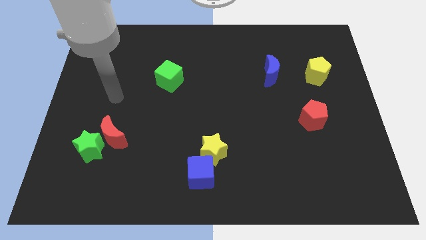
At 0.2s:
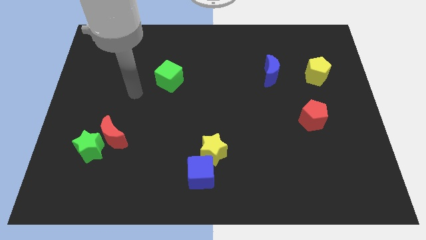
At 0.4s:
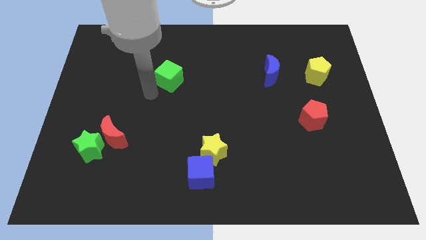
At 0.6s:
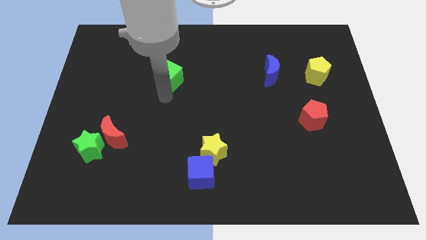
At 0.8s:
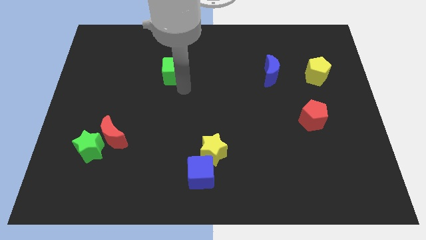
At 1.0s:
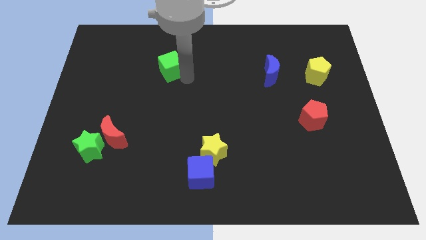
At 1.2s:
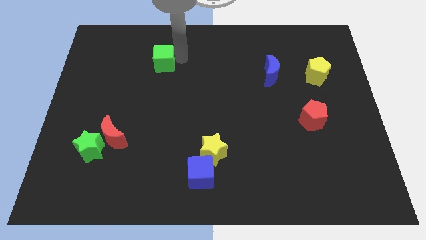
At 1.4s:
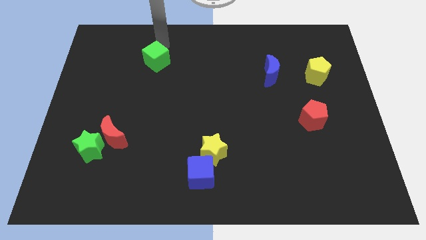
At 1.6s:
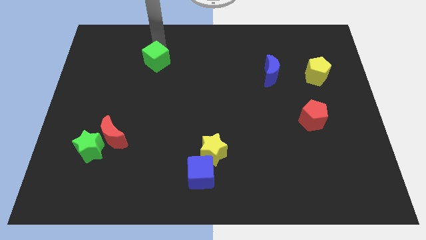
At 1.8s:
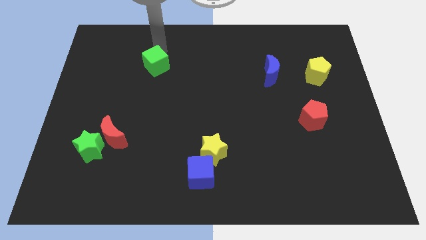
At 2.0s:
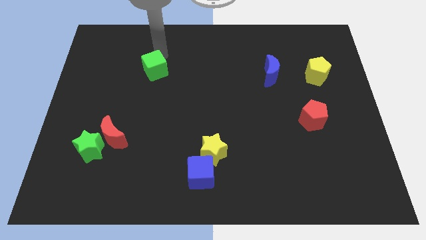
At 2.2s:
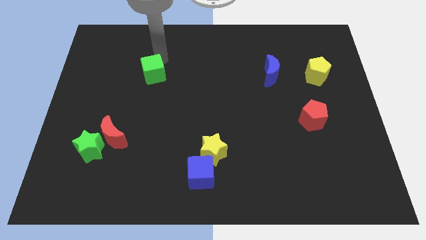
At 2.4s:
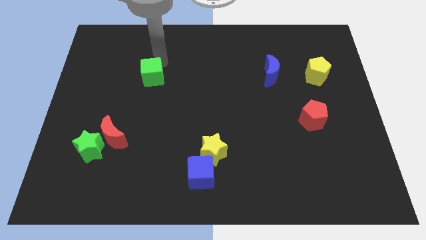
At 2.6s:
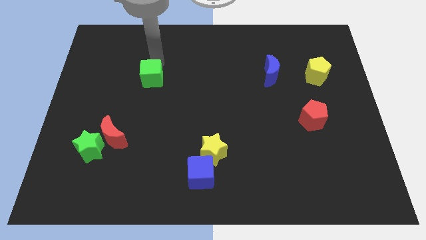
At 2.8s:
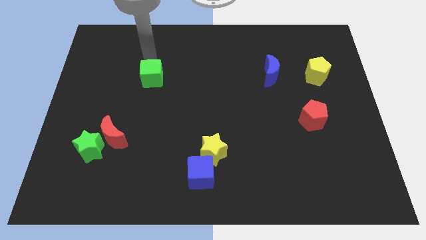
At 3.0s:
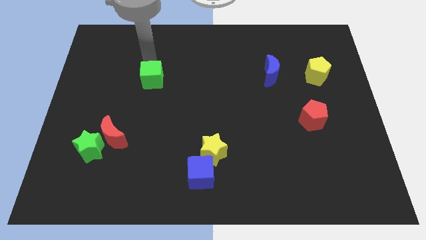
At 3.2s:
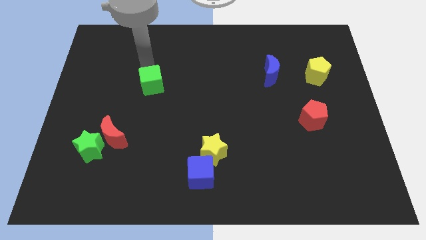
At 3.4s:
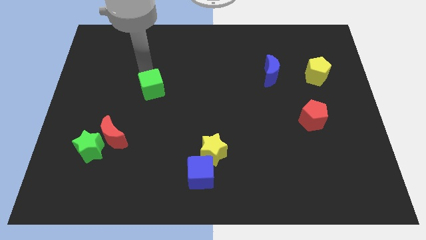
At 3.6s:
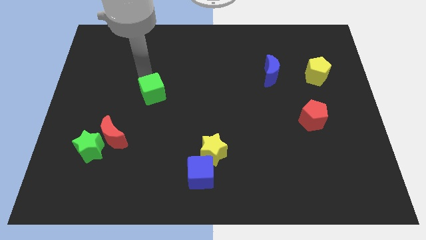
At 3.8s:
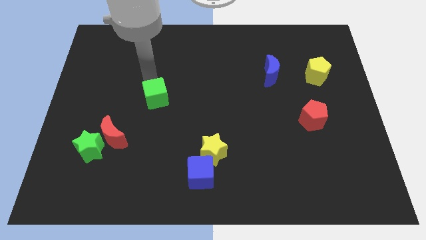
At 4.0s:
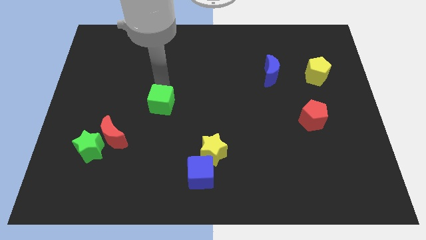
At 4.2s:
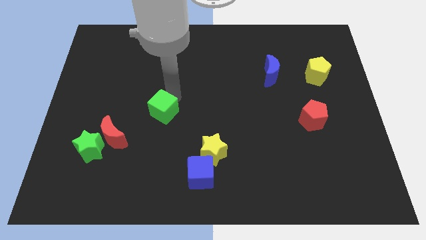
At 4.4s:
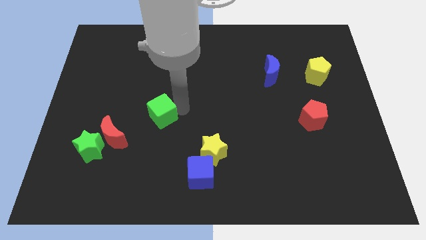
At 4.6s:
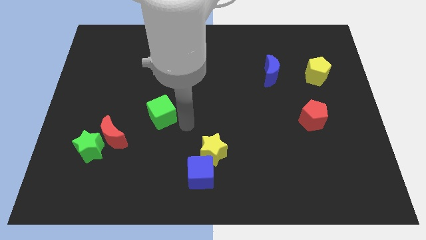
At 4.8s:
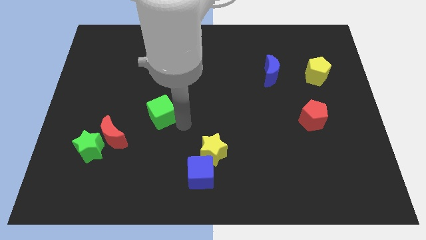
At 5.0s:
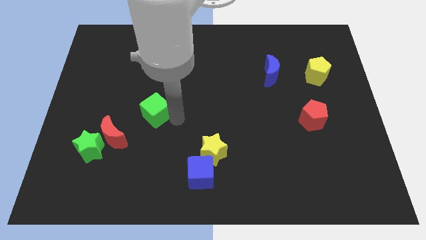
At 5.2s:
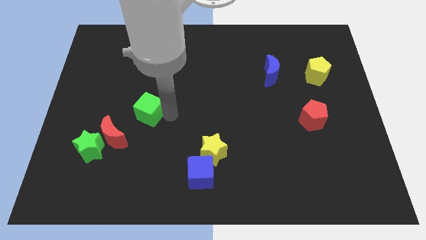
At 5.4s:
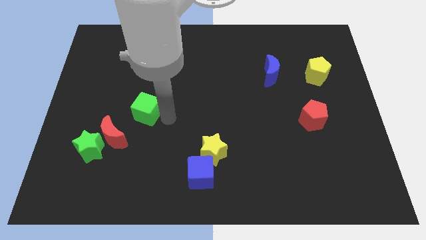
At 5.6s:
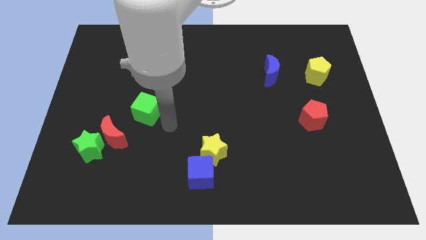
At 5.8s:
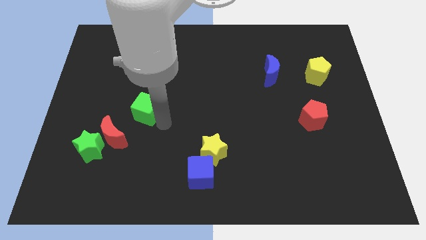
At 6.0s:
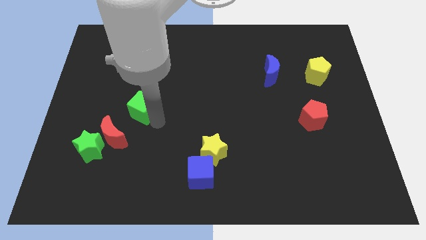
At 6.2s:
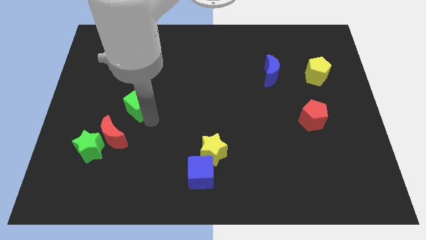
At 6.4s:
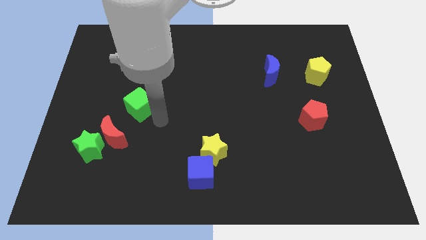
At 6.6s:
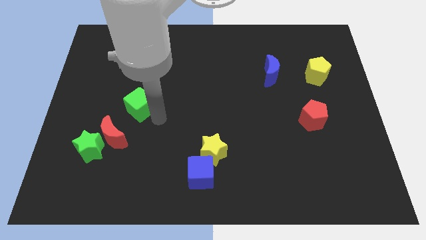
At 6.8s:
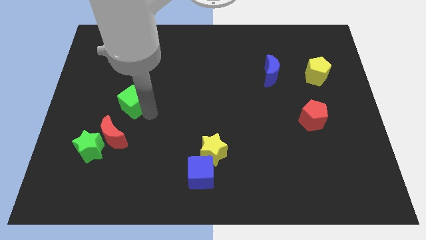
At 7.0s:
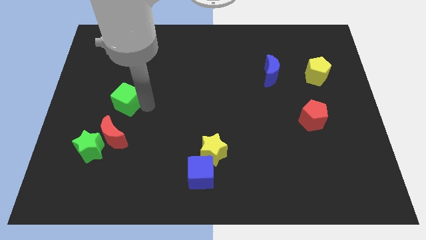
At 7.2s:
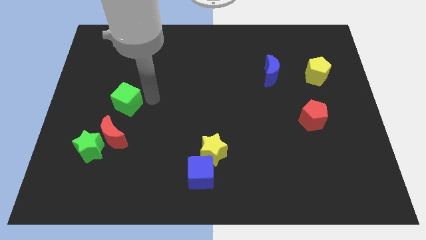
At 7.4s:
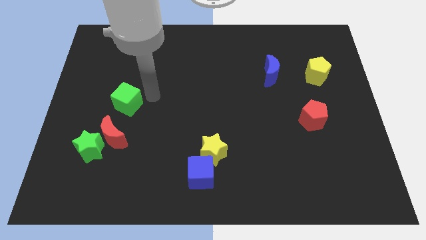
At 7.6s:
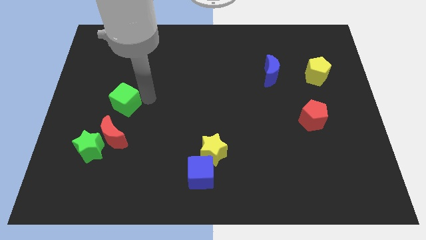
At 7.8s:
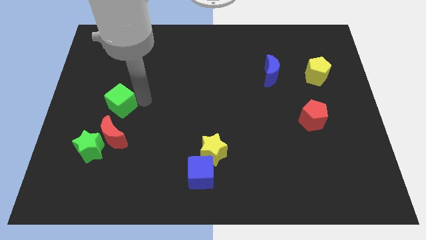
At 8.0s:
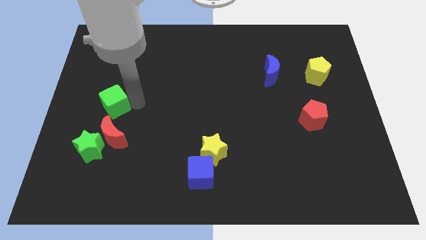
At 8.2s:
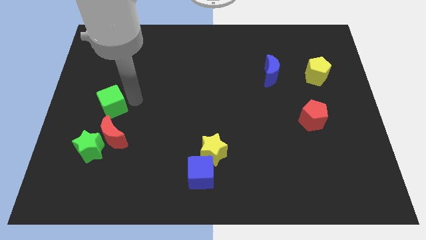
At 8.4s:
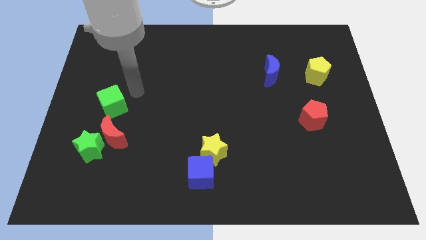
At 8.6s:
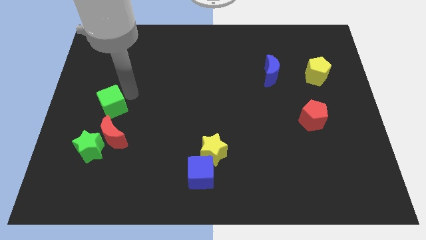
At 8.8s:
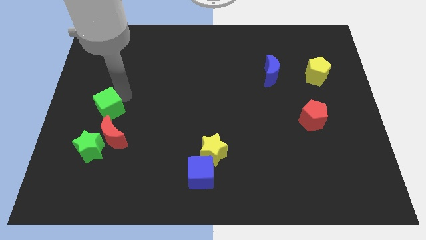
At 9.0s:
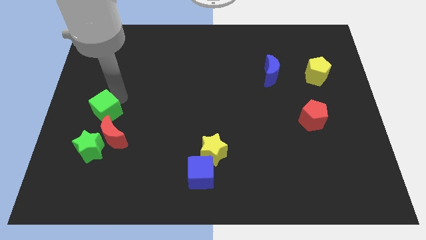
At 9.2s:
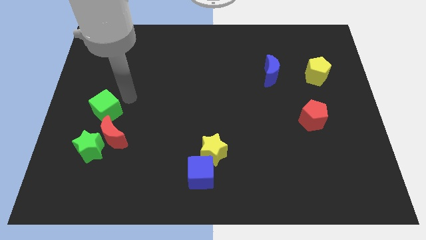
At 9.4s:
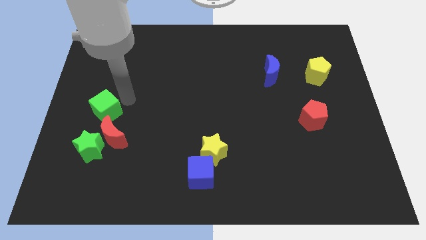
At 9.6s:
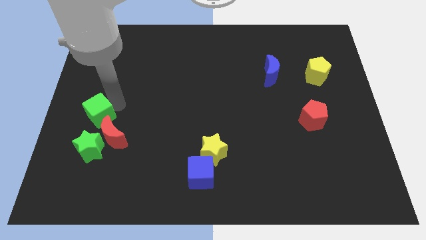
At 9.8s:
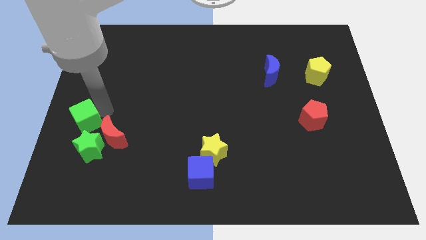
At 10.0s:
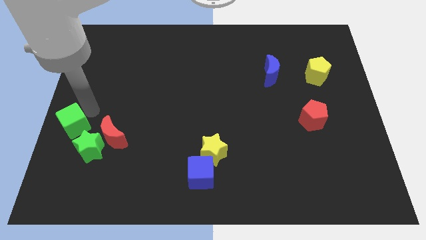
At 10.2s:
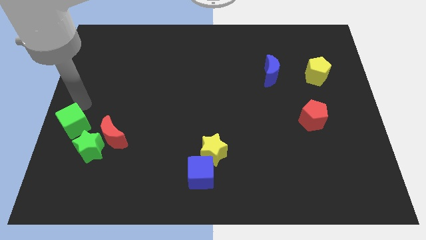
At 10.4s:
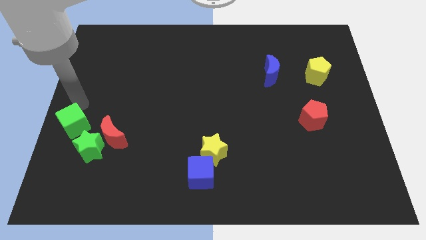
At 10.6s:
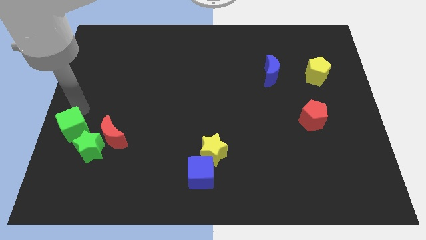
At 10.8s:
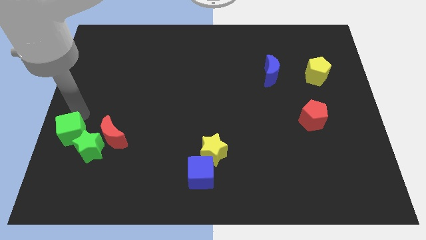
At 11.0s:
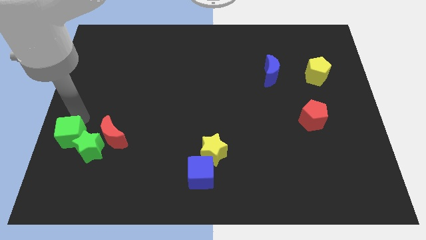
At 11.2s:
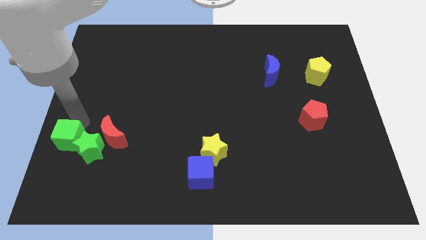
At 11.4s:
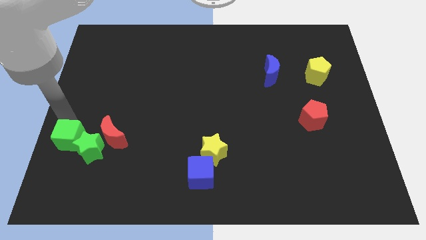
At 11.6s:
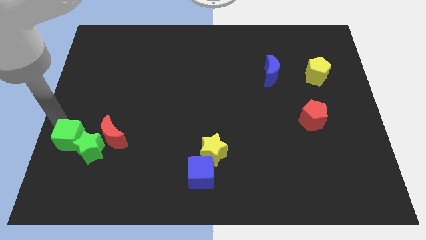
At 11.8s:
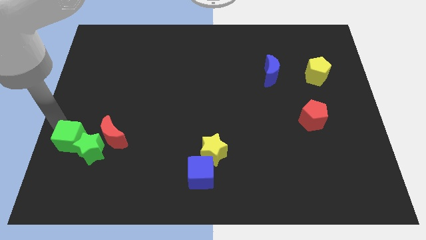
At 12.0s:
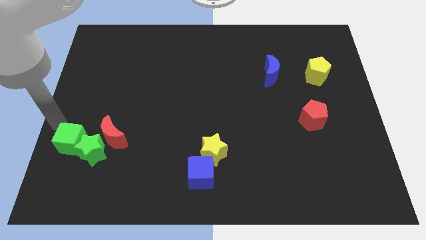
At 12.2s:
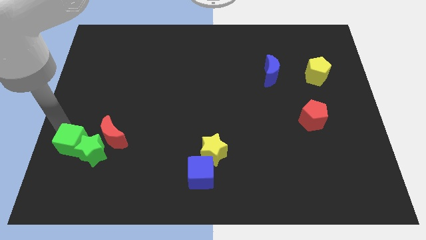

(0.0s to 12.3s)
slide the green cube to the bottom left side of the red moon

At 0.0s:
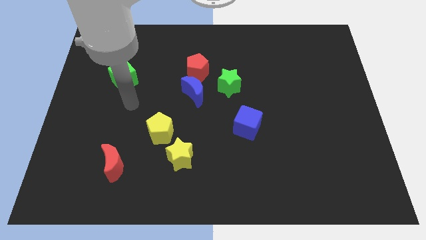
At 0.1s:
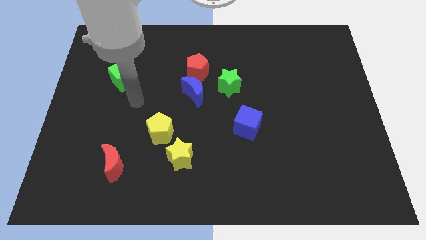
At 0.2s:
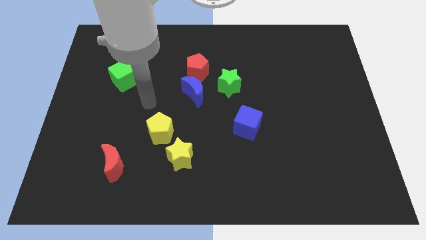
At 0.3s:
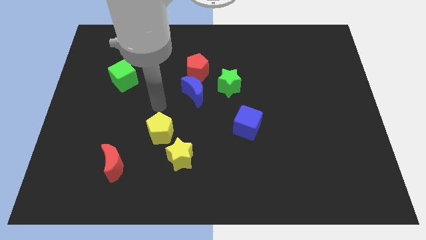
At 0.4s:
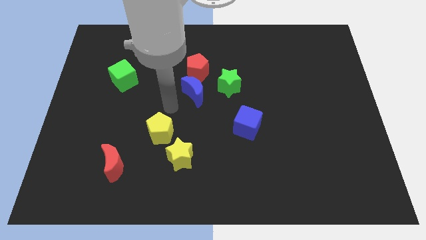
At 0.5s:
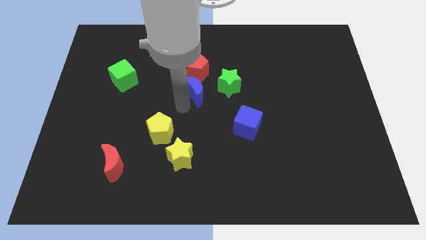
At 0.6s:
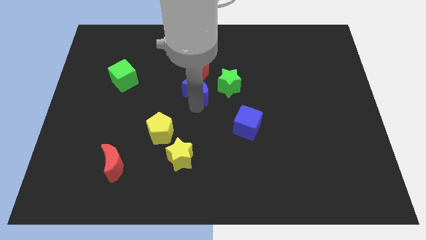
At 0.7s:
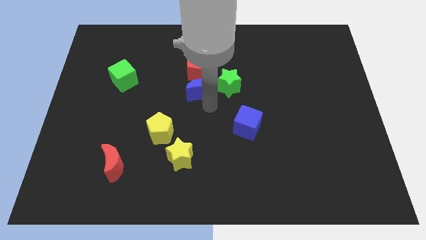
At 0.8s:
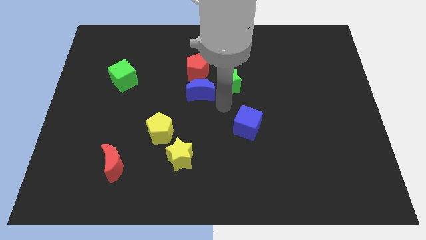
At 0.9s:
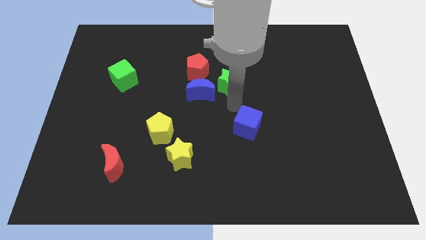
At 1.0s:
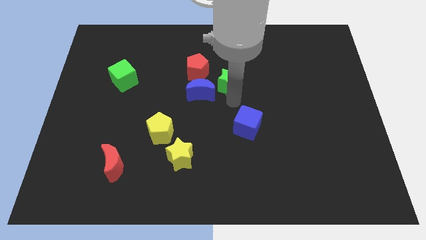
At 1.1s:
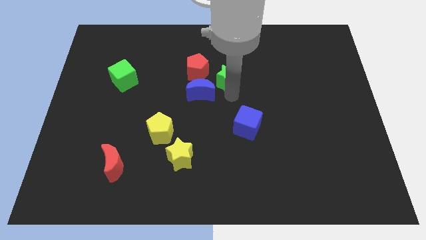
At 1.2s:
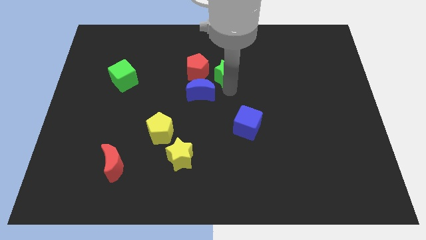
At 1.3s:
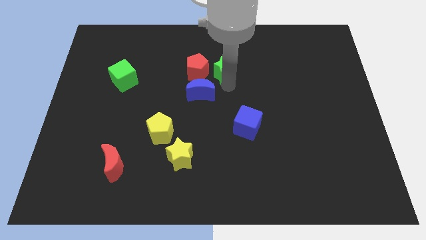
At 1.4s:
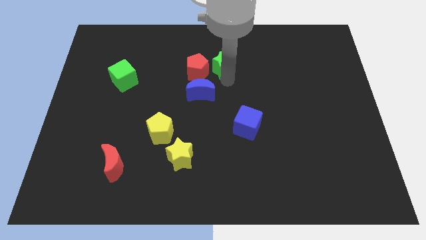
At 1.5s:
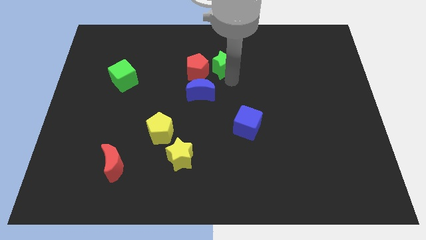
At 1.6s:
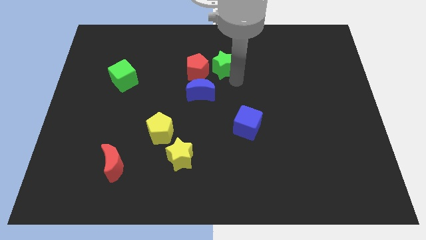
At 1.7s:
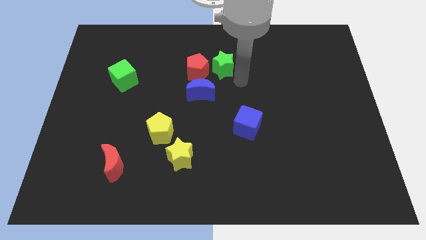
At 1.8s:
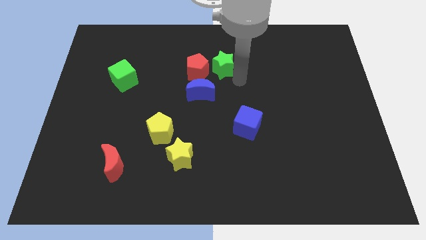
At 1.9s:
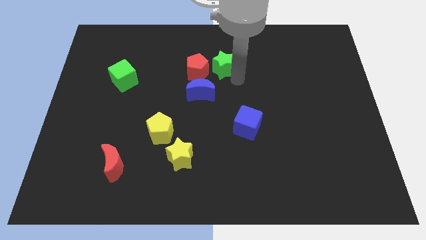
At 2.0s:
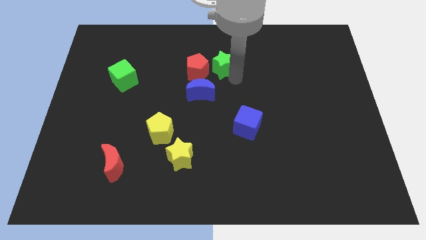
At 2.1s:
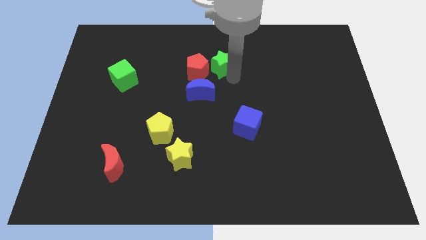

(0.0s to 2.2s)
push the green star to the top side of the blue moon
